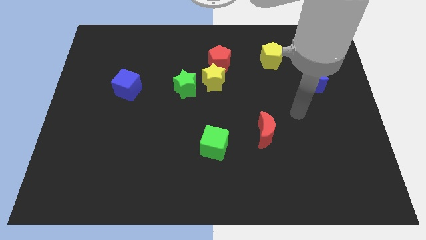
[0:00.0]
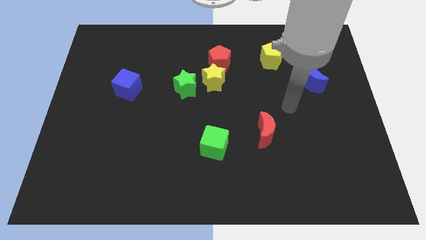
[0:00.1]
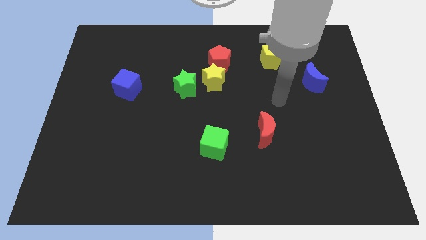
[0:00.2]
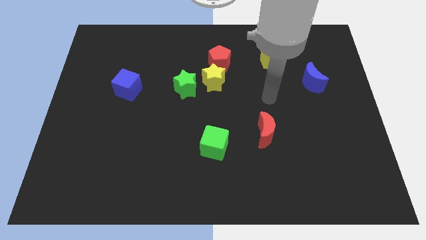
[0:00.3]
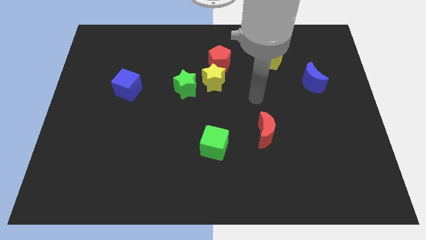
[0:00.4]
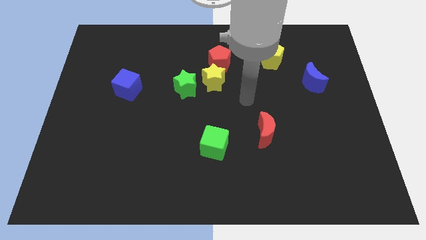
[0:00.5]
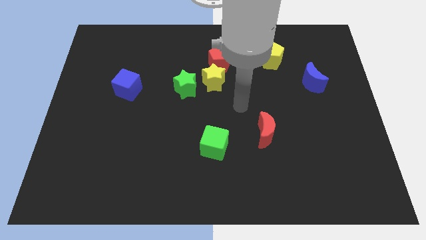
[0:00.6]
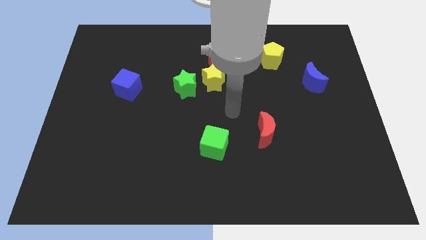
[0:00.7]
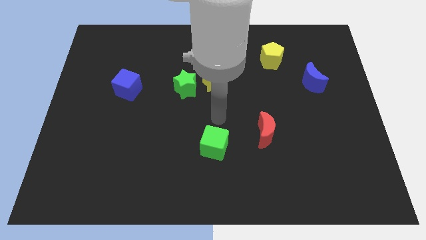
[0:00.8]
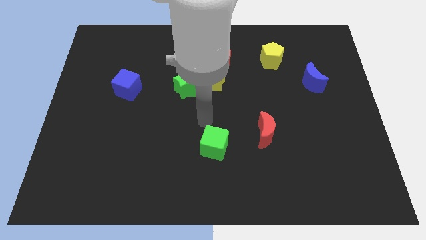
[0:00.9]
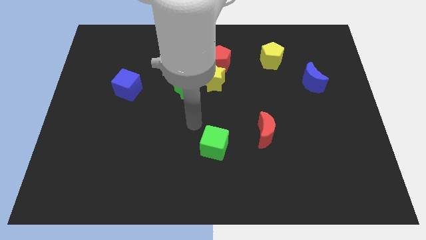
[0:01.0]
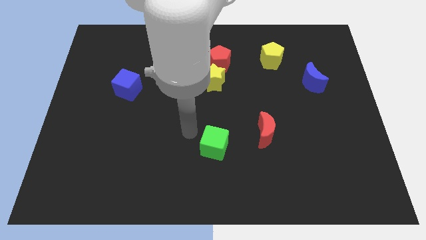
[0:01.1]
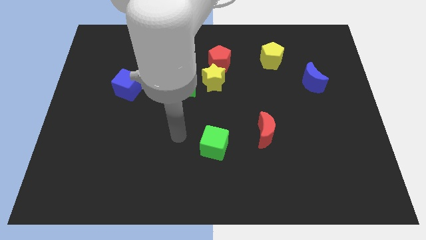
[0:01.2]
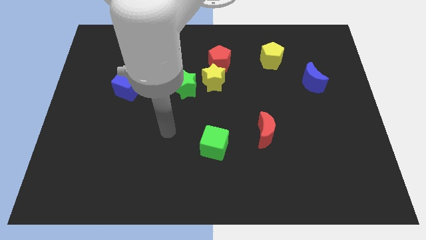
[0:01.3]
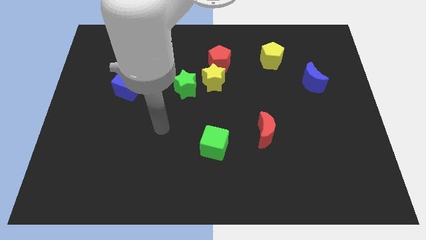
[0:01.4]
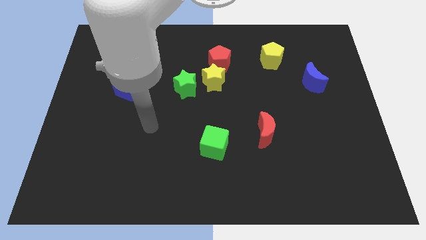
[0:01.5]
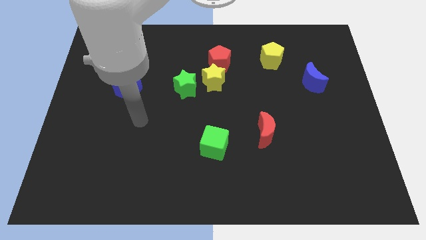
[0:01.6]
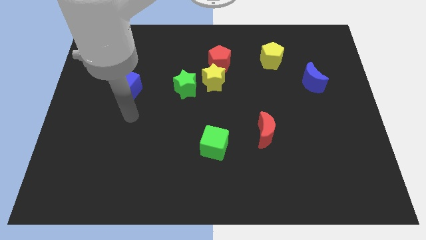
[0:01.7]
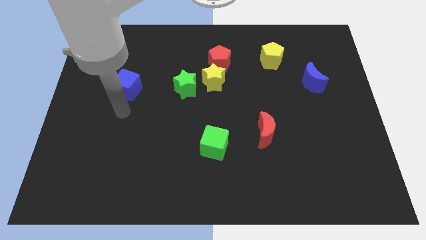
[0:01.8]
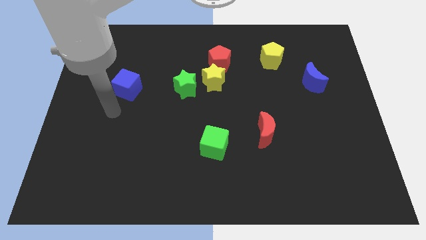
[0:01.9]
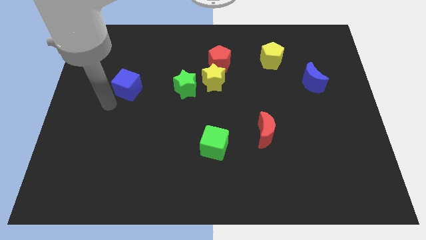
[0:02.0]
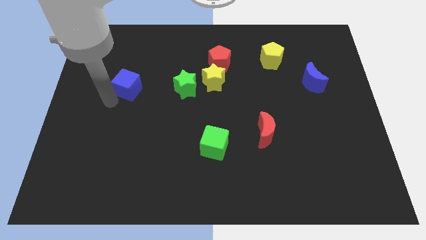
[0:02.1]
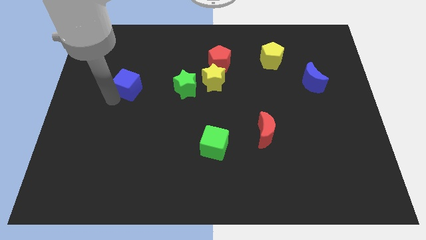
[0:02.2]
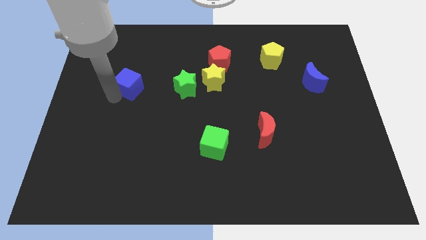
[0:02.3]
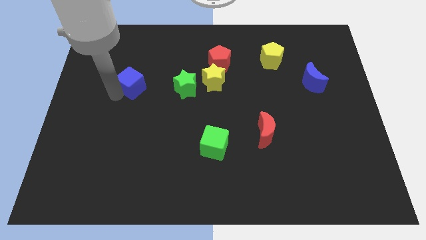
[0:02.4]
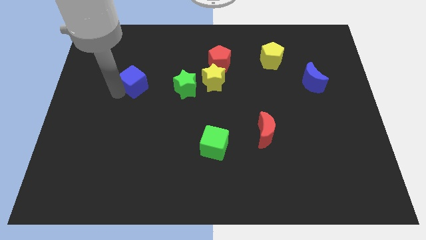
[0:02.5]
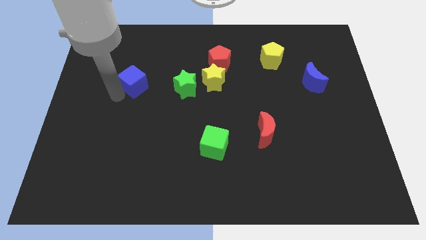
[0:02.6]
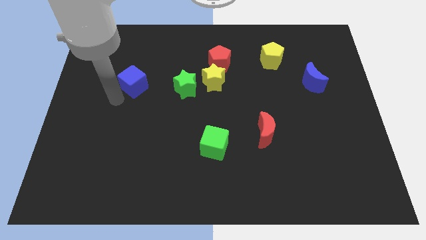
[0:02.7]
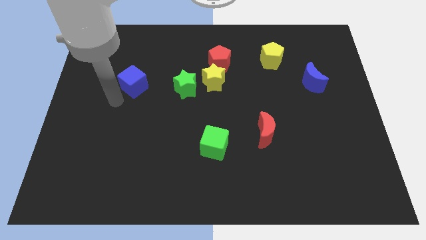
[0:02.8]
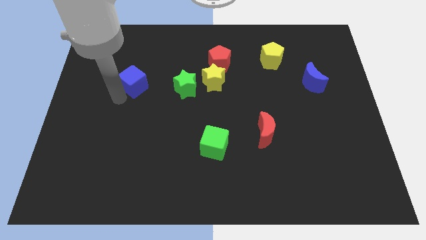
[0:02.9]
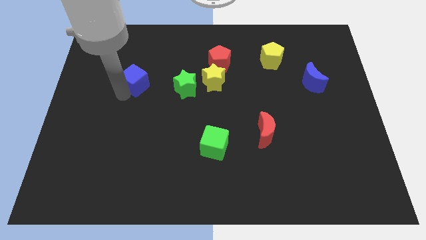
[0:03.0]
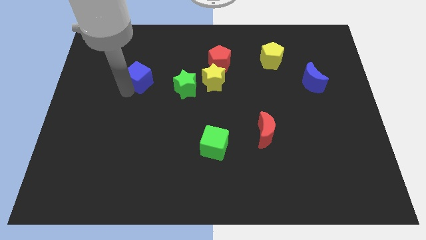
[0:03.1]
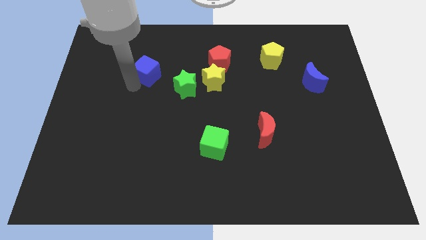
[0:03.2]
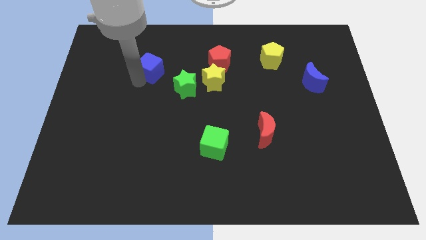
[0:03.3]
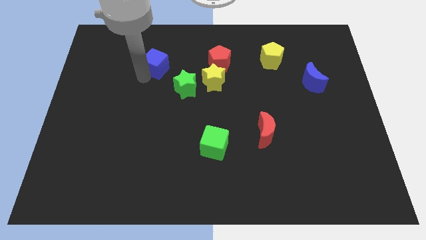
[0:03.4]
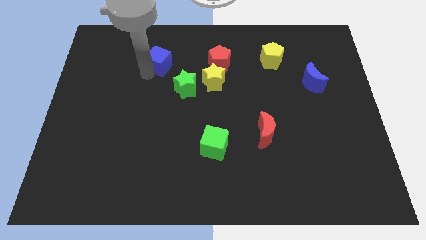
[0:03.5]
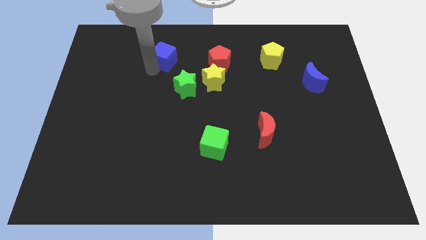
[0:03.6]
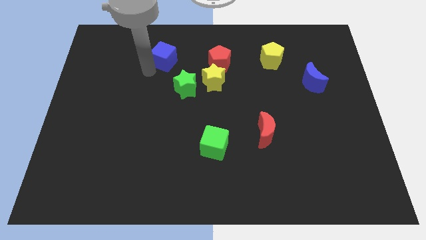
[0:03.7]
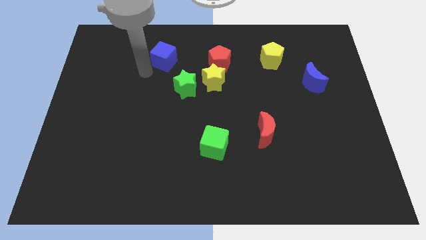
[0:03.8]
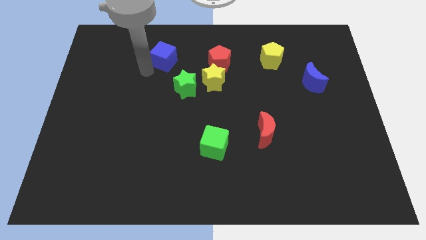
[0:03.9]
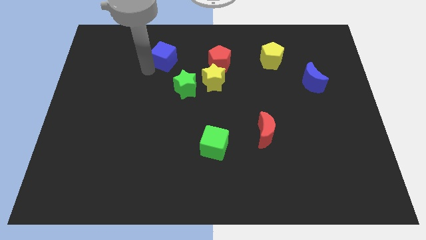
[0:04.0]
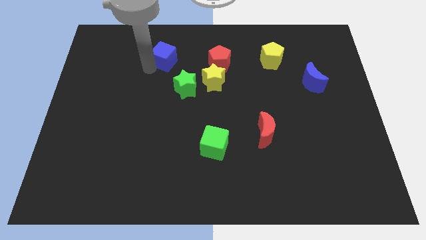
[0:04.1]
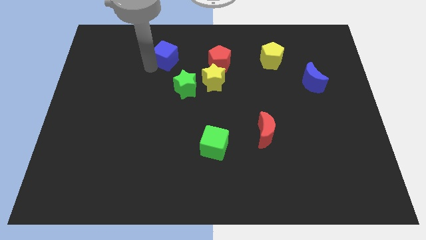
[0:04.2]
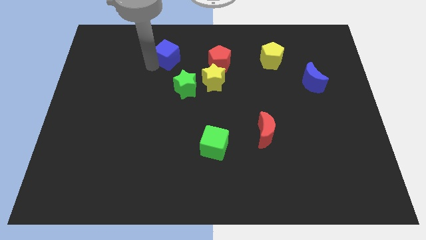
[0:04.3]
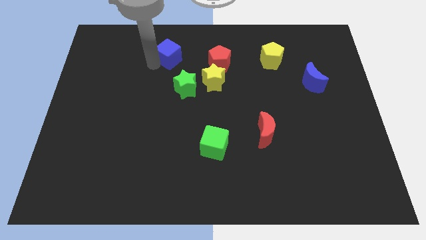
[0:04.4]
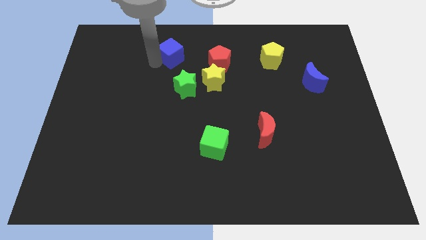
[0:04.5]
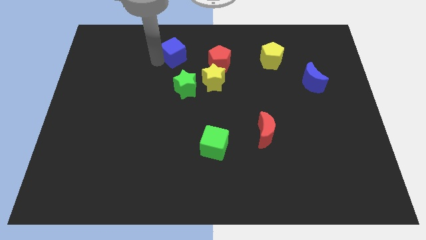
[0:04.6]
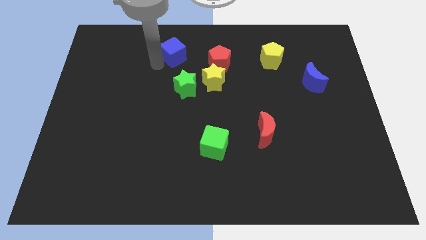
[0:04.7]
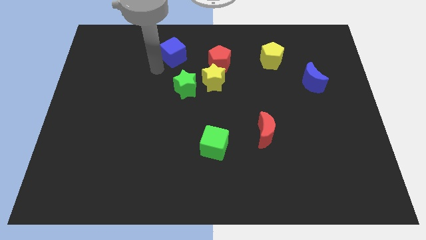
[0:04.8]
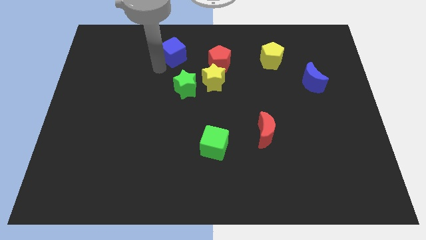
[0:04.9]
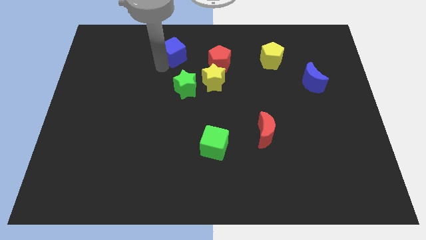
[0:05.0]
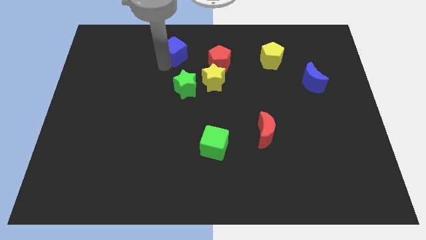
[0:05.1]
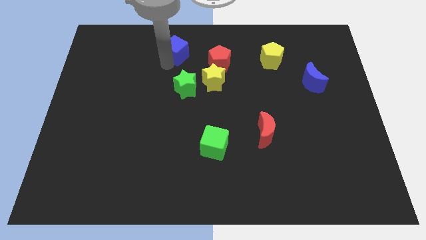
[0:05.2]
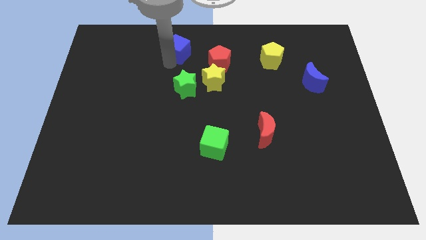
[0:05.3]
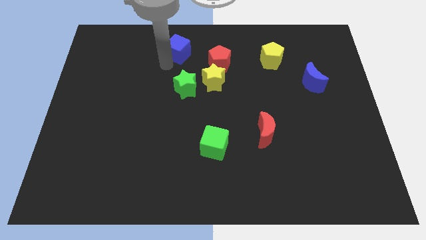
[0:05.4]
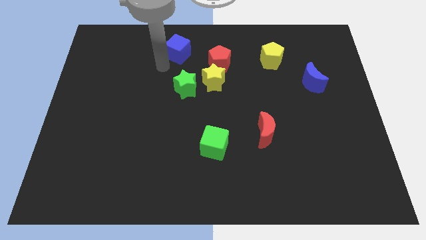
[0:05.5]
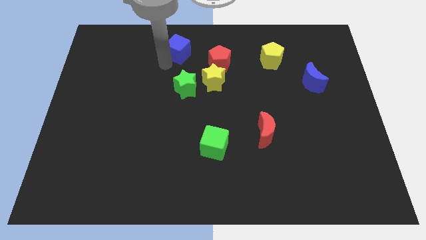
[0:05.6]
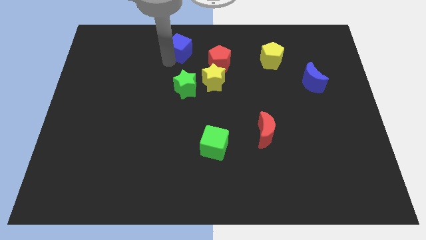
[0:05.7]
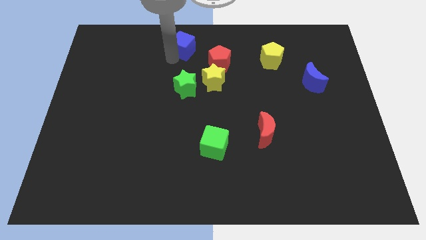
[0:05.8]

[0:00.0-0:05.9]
push the blue cube to the top side

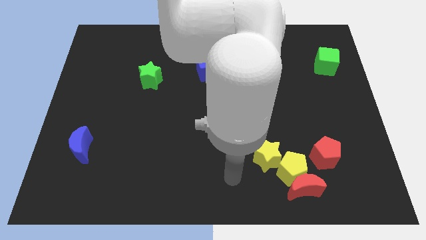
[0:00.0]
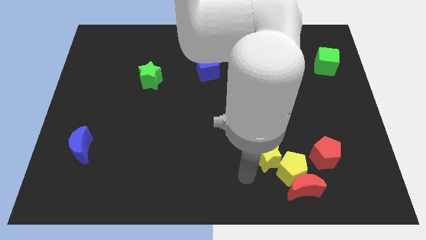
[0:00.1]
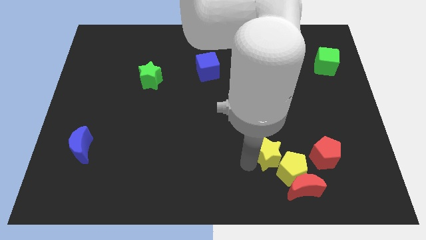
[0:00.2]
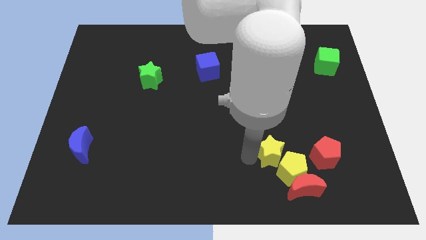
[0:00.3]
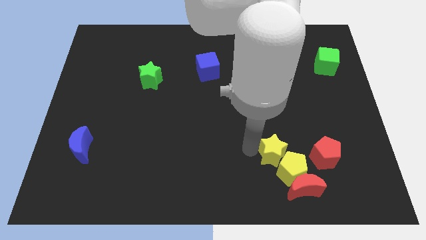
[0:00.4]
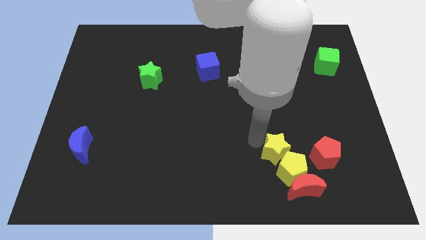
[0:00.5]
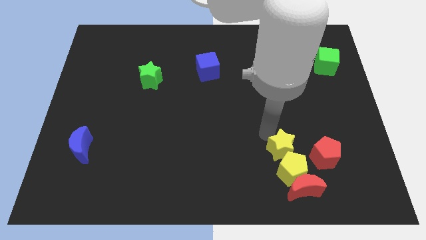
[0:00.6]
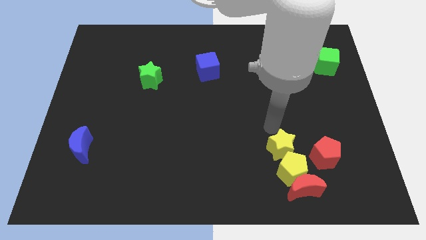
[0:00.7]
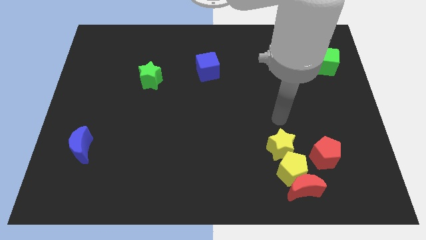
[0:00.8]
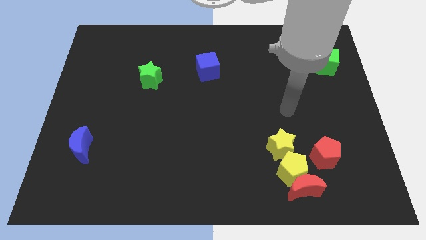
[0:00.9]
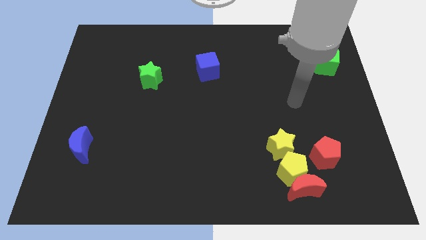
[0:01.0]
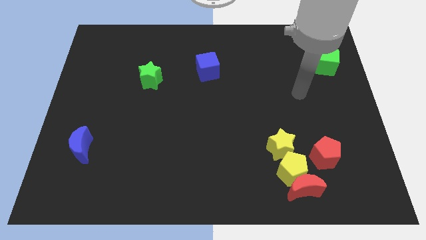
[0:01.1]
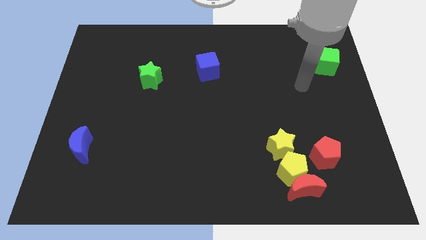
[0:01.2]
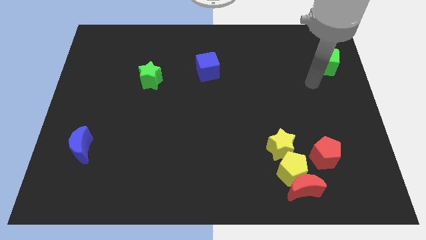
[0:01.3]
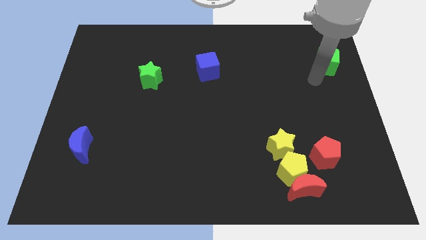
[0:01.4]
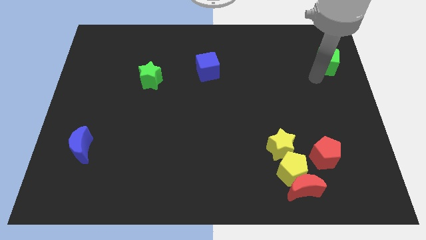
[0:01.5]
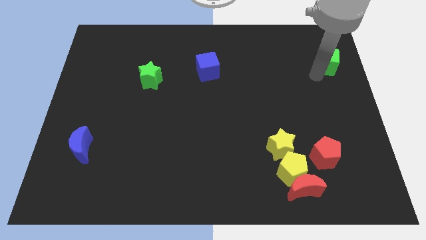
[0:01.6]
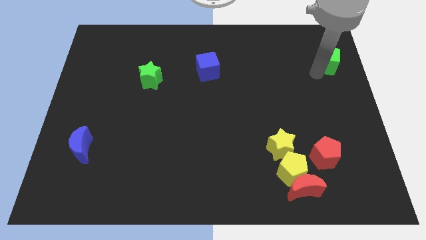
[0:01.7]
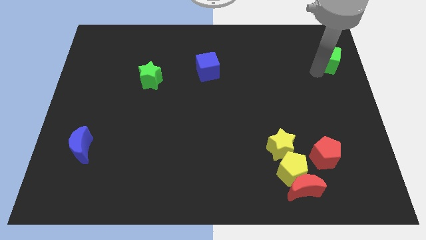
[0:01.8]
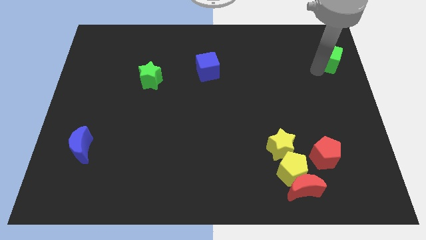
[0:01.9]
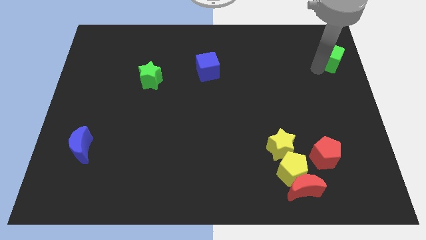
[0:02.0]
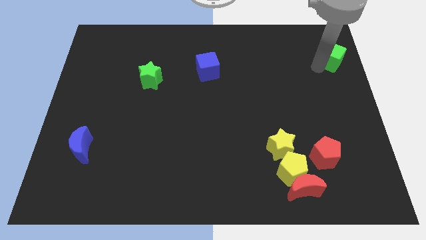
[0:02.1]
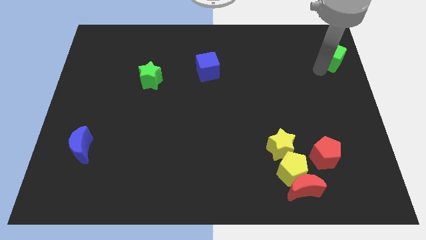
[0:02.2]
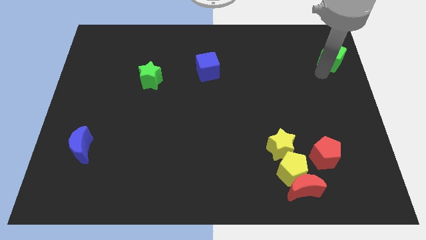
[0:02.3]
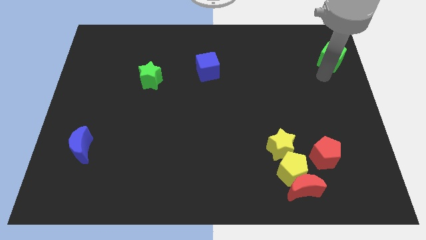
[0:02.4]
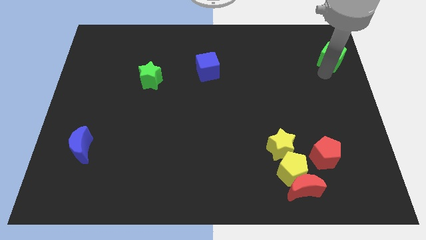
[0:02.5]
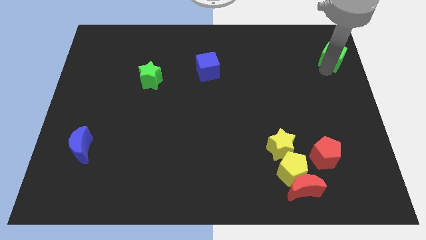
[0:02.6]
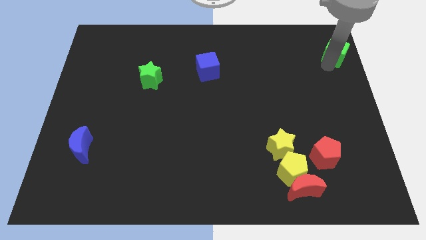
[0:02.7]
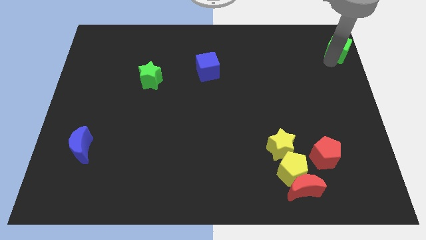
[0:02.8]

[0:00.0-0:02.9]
slide the green cube to the top right corner
